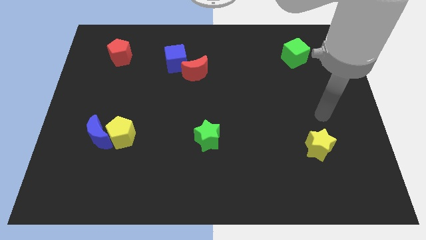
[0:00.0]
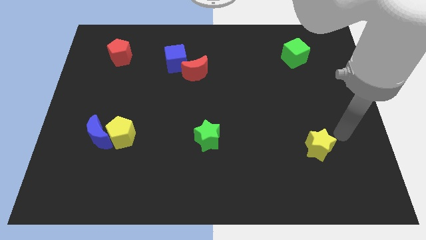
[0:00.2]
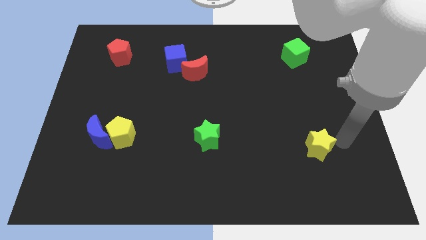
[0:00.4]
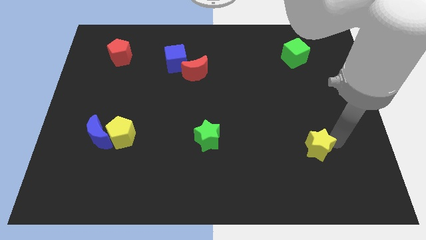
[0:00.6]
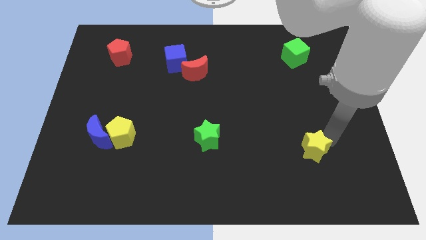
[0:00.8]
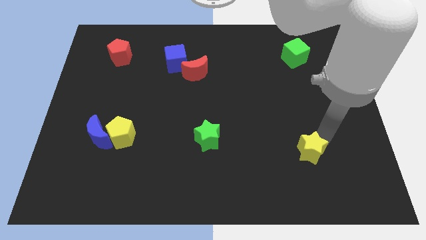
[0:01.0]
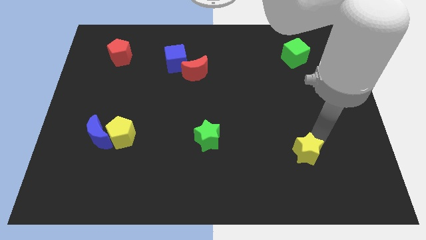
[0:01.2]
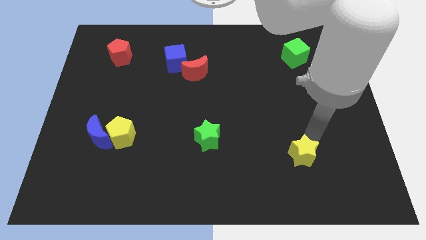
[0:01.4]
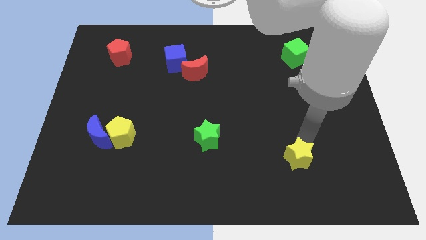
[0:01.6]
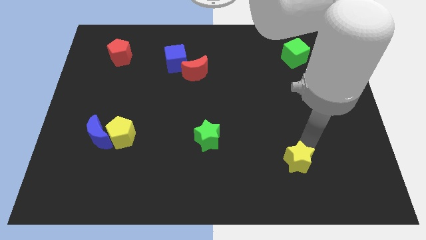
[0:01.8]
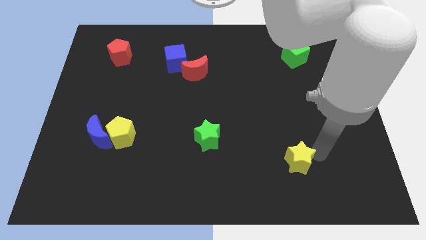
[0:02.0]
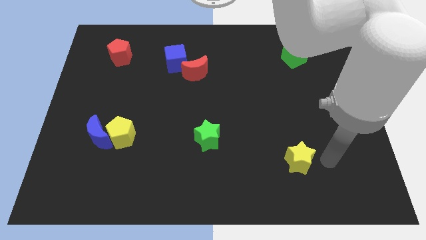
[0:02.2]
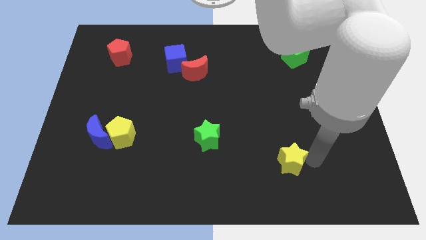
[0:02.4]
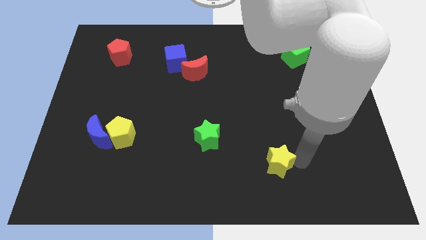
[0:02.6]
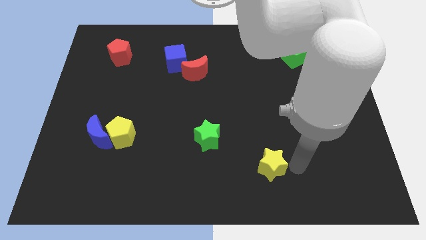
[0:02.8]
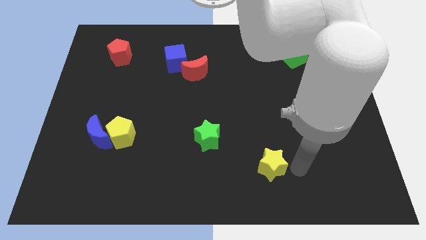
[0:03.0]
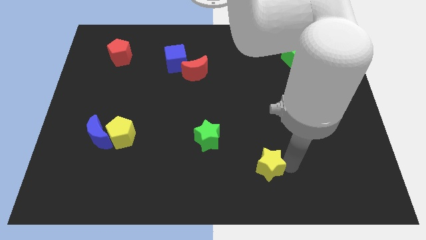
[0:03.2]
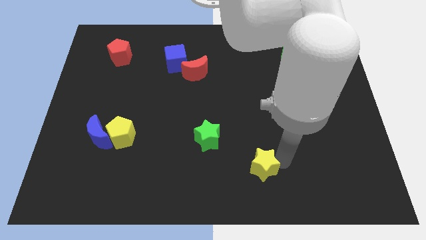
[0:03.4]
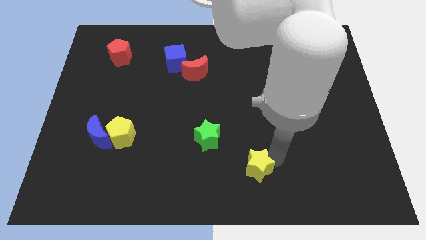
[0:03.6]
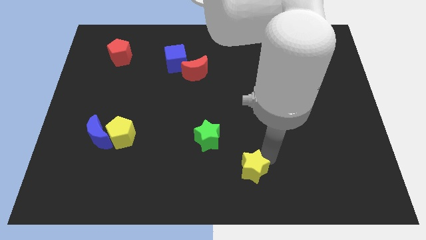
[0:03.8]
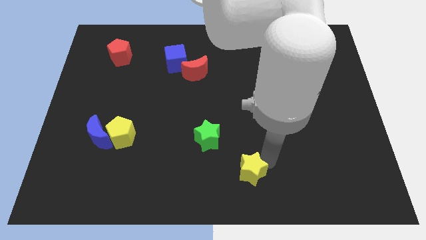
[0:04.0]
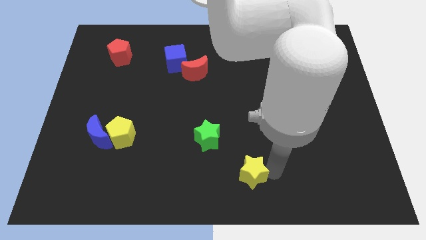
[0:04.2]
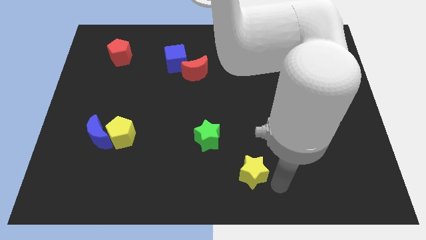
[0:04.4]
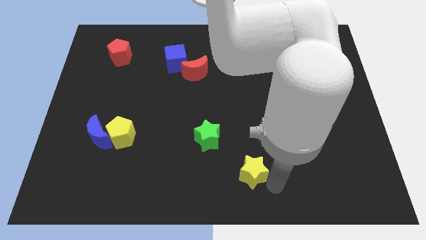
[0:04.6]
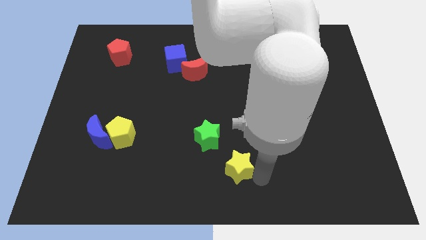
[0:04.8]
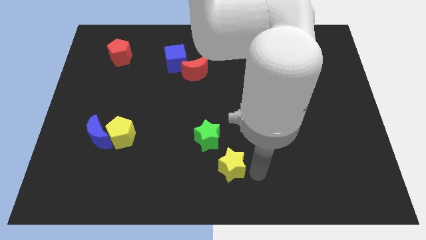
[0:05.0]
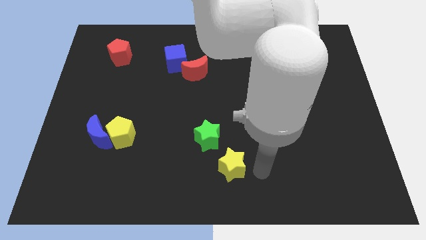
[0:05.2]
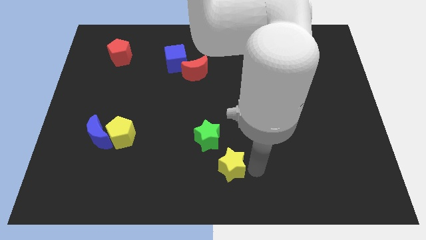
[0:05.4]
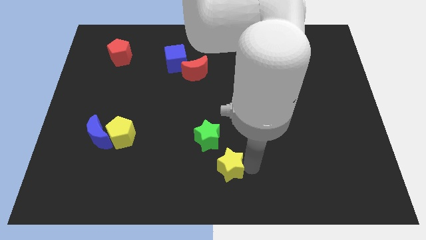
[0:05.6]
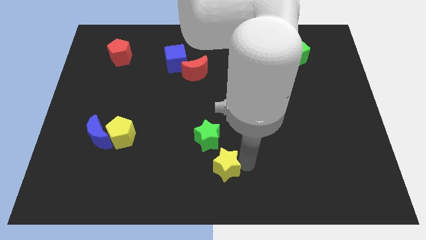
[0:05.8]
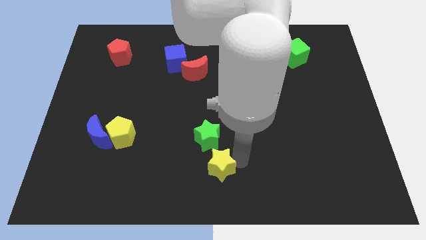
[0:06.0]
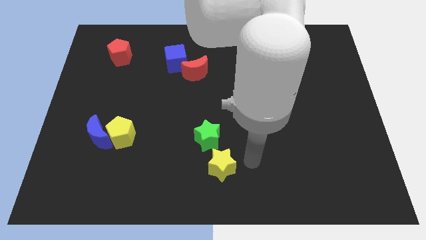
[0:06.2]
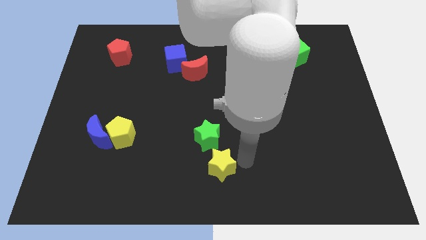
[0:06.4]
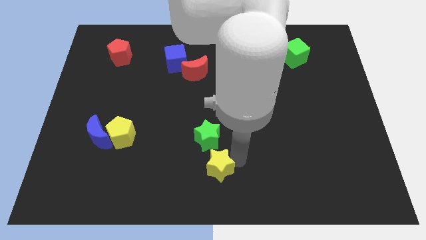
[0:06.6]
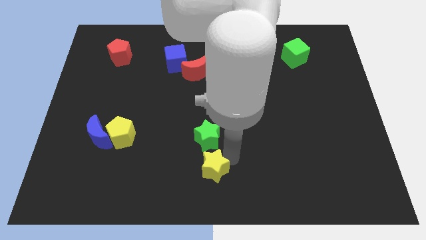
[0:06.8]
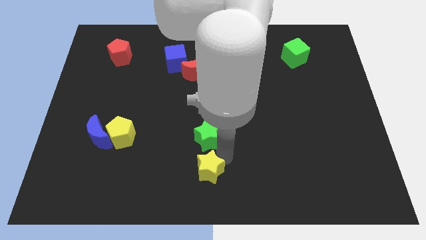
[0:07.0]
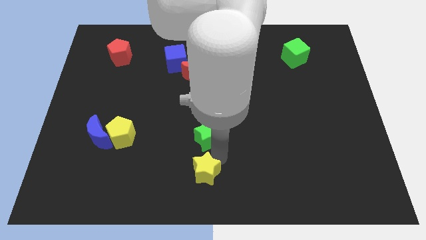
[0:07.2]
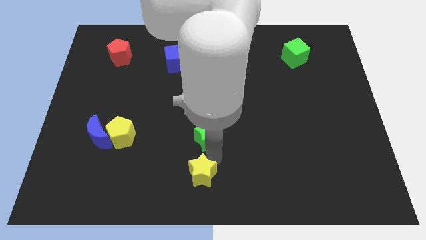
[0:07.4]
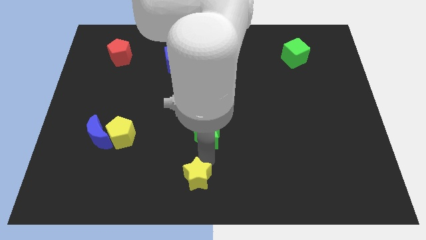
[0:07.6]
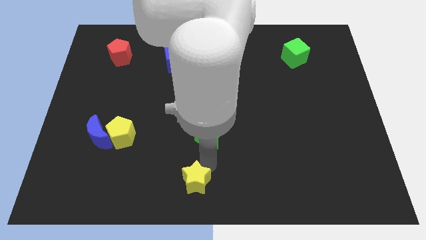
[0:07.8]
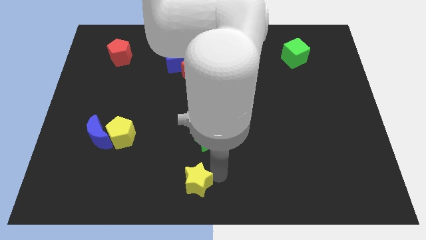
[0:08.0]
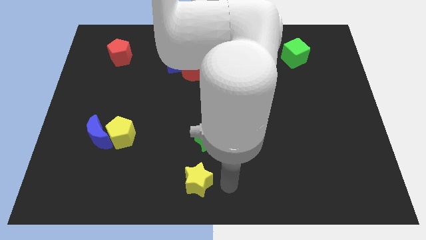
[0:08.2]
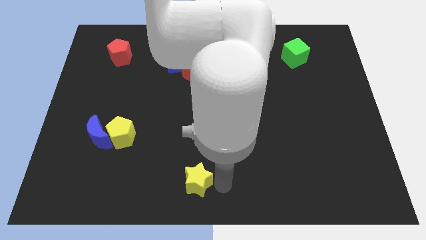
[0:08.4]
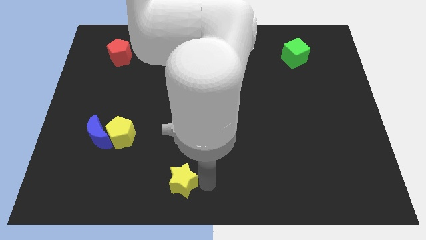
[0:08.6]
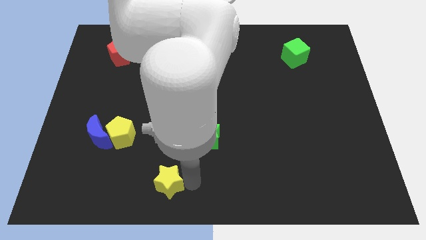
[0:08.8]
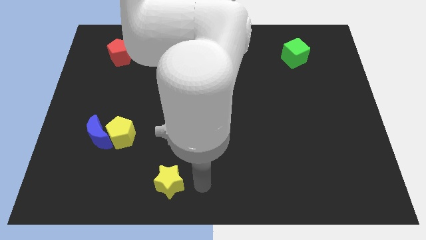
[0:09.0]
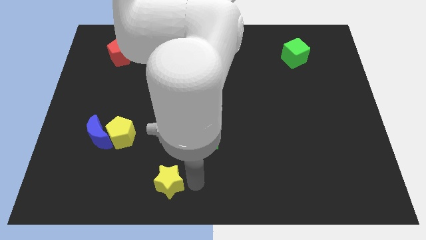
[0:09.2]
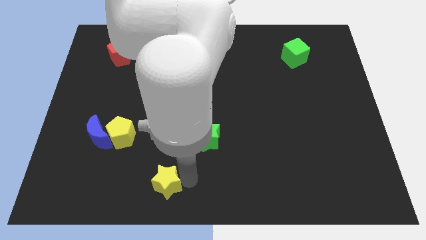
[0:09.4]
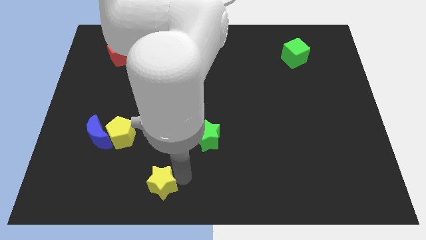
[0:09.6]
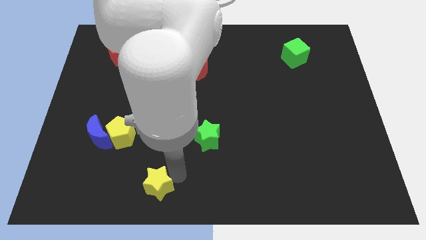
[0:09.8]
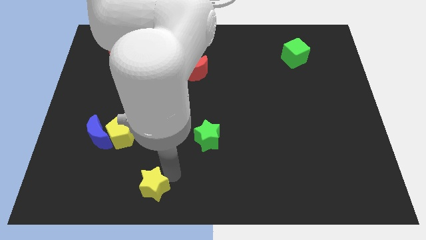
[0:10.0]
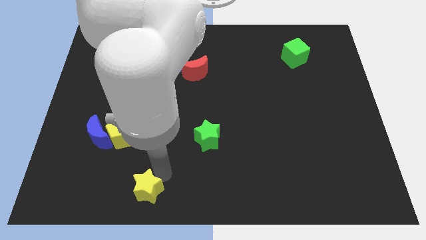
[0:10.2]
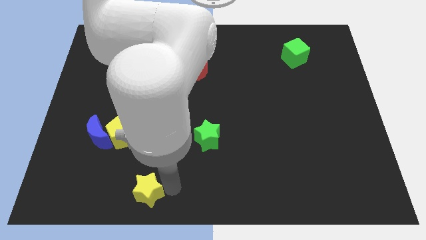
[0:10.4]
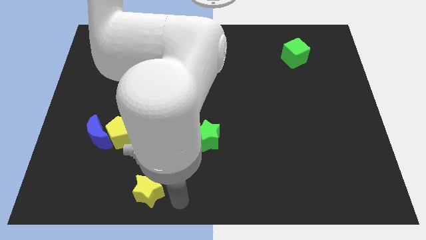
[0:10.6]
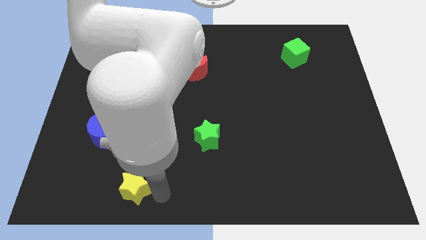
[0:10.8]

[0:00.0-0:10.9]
push the yellow star below the yellow pentagon

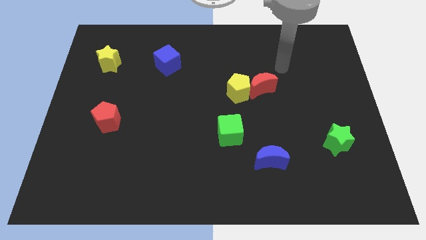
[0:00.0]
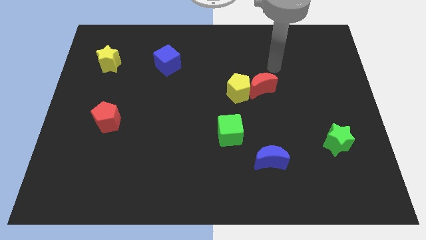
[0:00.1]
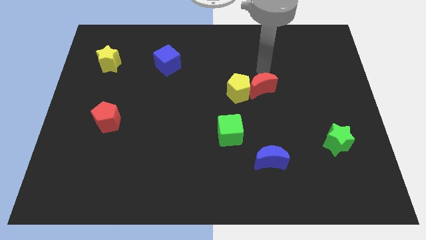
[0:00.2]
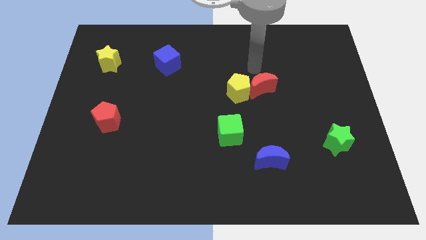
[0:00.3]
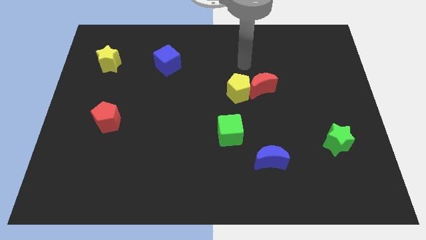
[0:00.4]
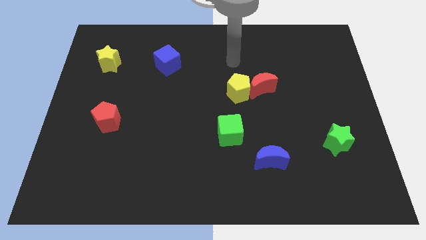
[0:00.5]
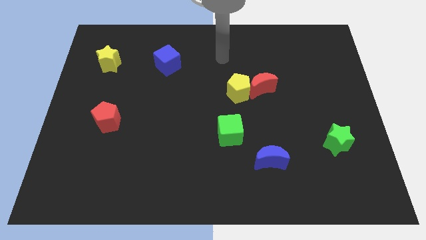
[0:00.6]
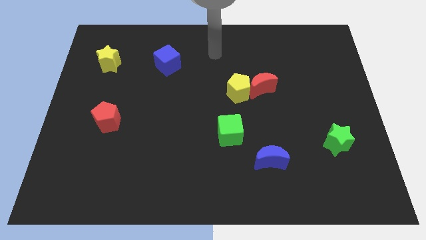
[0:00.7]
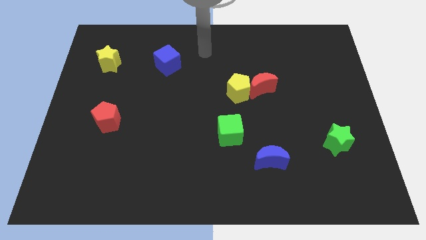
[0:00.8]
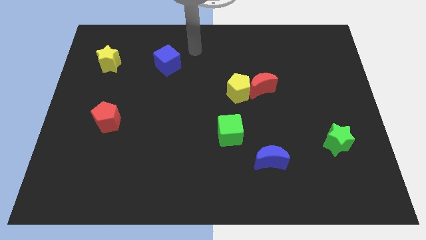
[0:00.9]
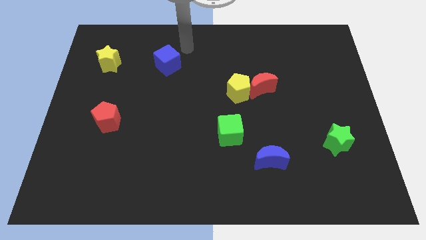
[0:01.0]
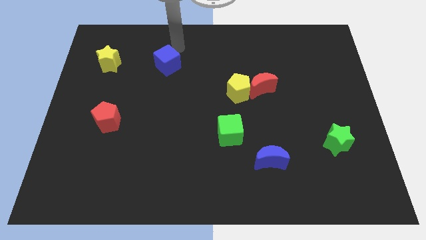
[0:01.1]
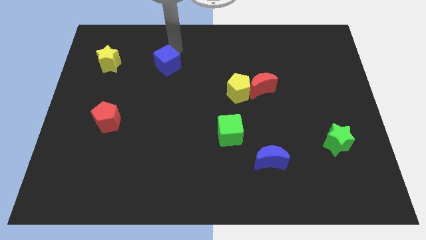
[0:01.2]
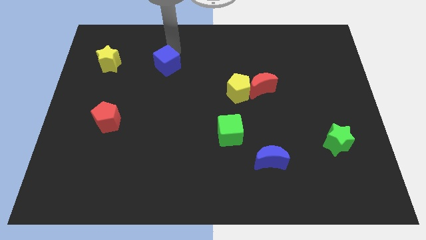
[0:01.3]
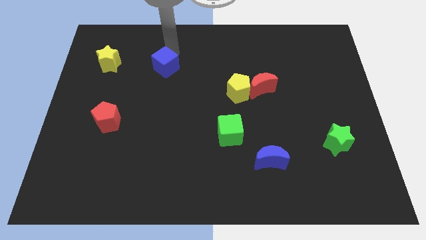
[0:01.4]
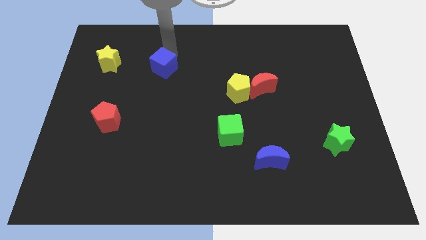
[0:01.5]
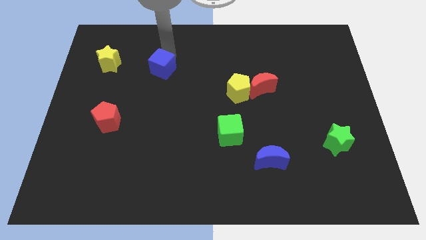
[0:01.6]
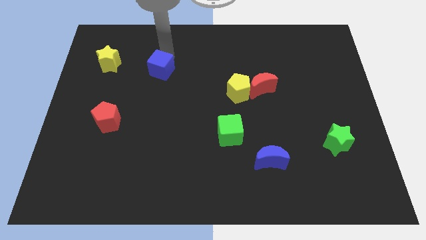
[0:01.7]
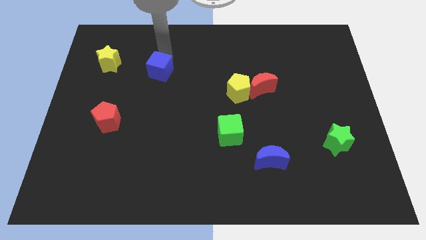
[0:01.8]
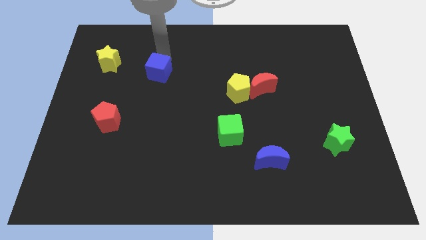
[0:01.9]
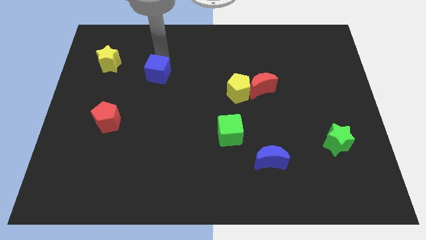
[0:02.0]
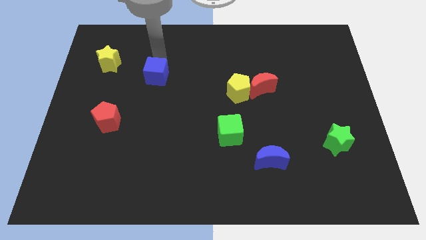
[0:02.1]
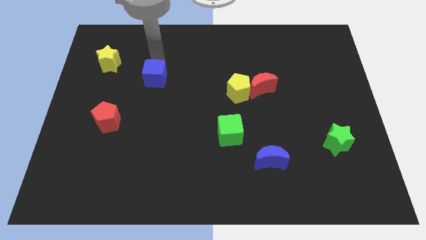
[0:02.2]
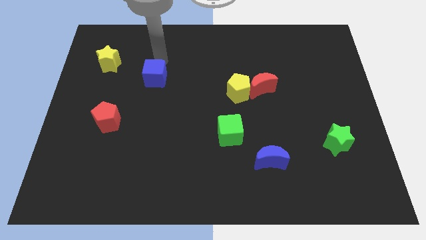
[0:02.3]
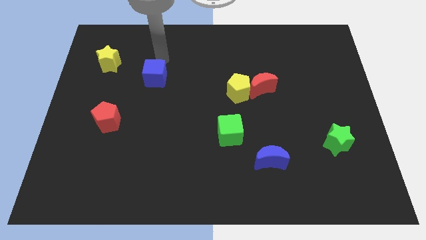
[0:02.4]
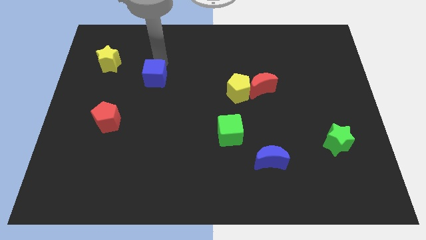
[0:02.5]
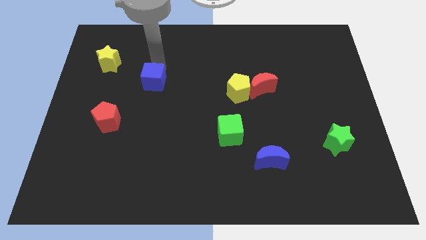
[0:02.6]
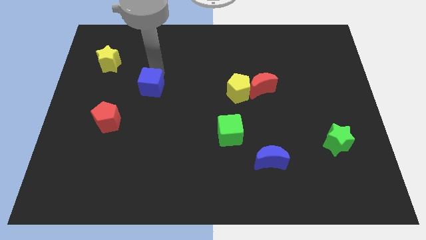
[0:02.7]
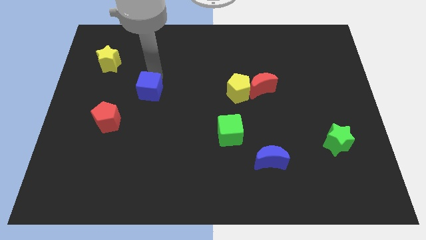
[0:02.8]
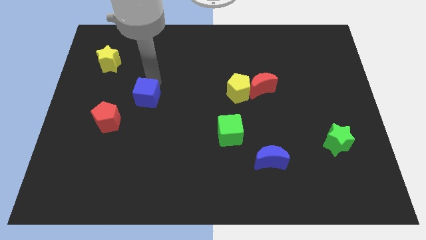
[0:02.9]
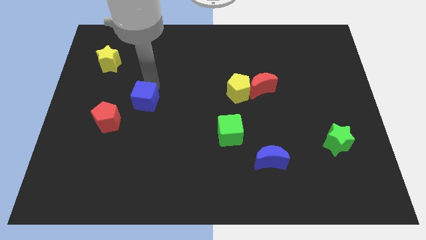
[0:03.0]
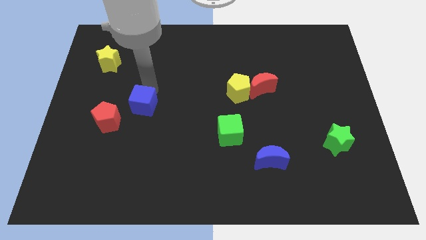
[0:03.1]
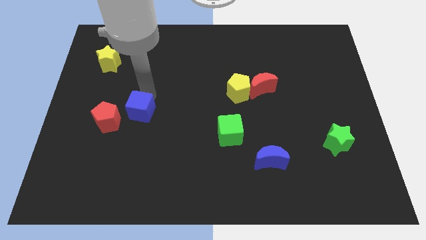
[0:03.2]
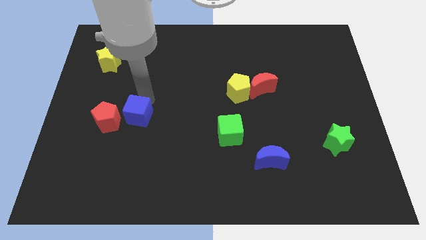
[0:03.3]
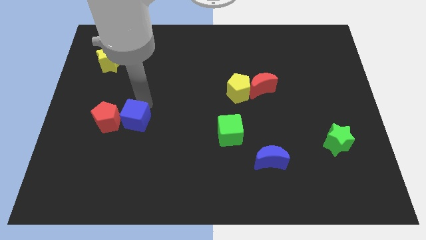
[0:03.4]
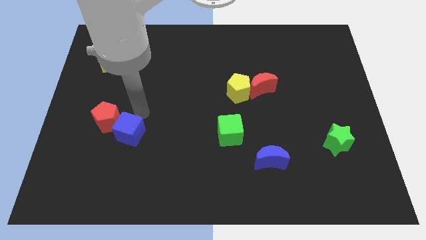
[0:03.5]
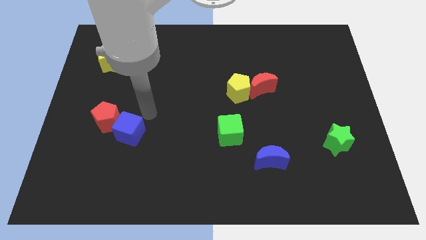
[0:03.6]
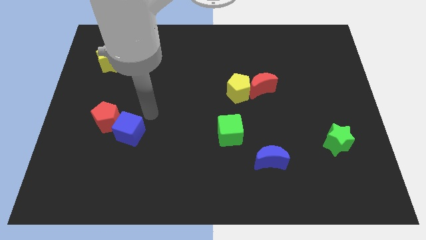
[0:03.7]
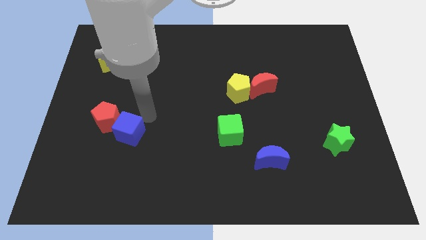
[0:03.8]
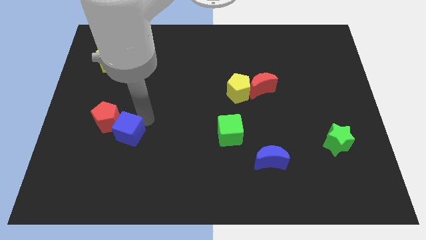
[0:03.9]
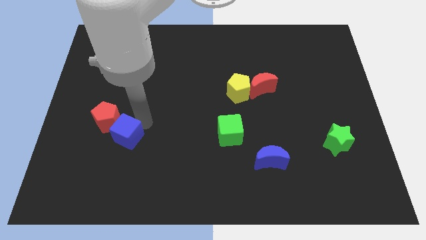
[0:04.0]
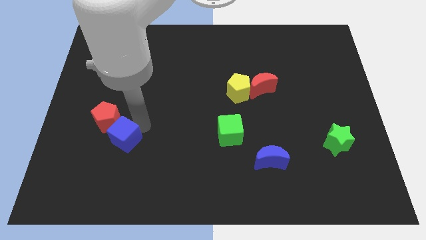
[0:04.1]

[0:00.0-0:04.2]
put the blue cube below the red pentagon
